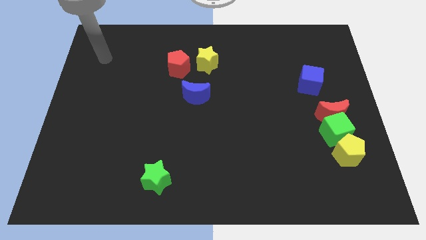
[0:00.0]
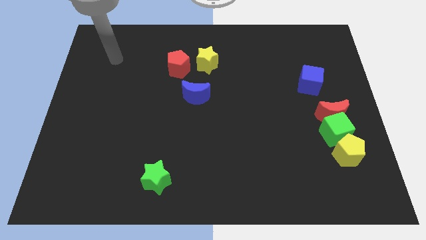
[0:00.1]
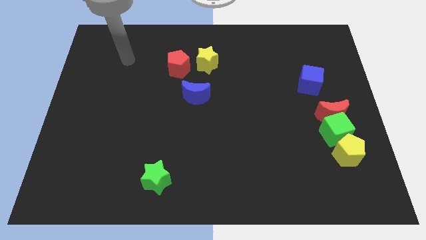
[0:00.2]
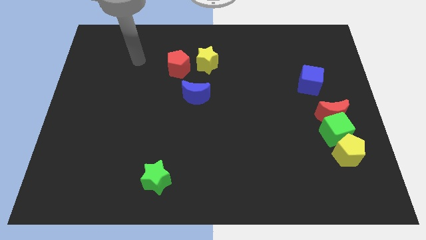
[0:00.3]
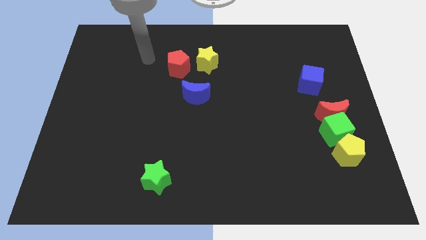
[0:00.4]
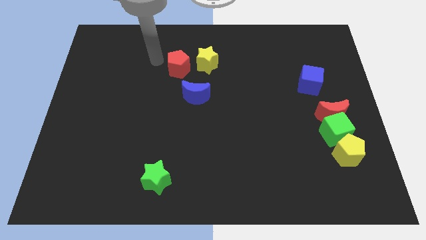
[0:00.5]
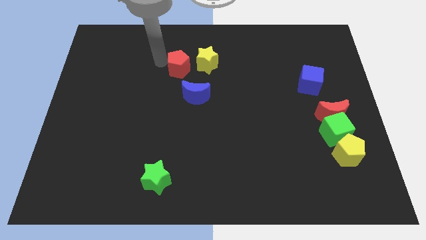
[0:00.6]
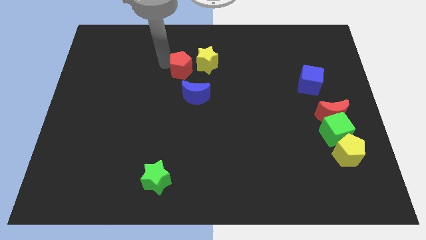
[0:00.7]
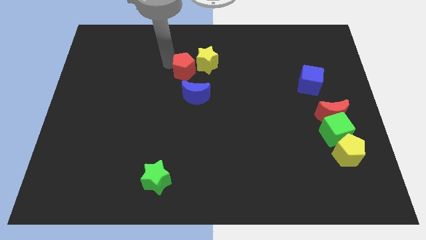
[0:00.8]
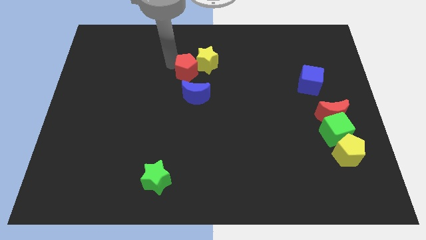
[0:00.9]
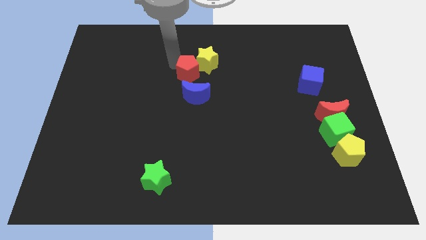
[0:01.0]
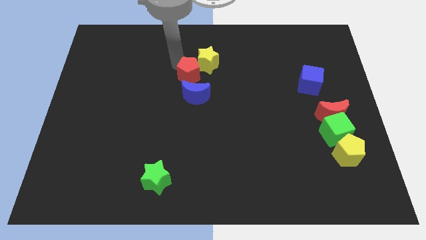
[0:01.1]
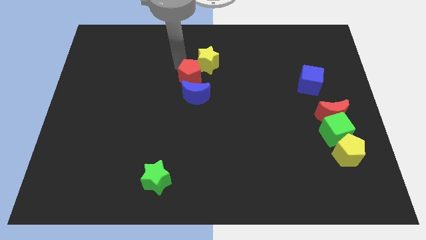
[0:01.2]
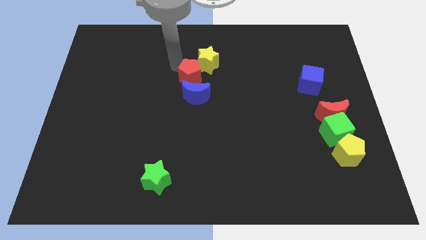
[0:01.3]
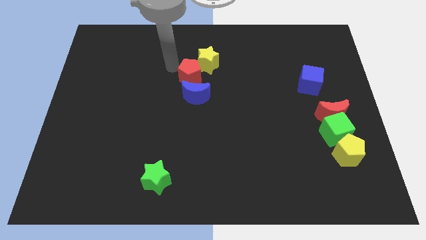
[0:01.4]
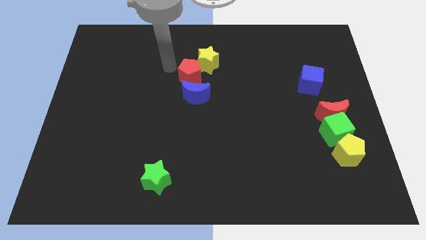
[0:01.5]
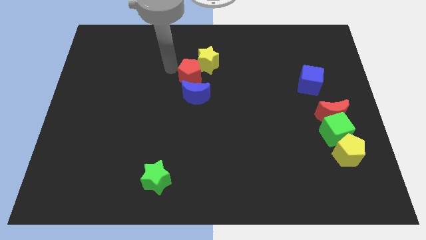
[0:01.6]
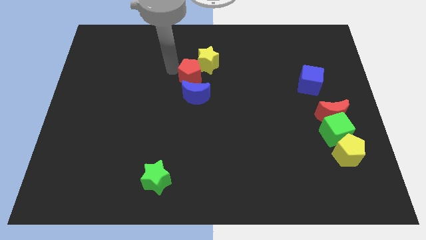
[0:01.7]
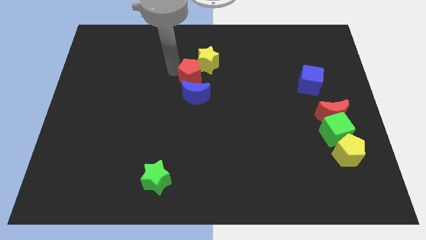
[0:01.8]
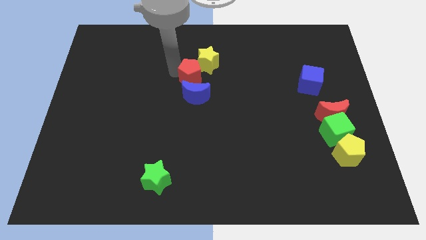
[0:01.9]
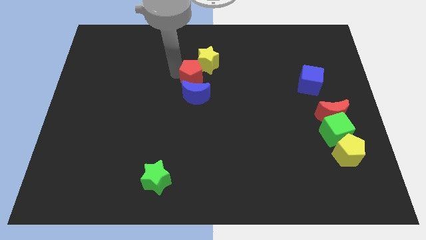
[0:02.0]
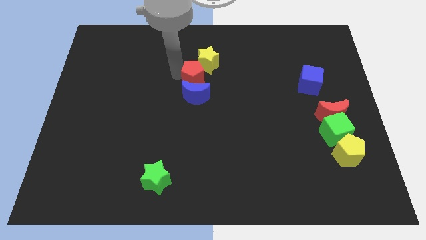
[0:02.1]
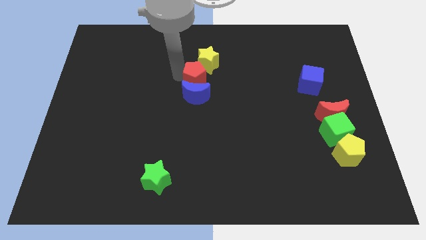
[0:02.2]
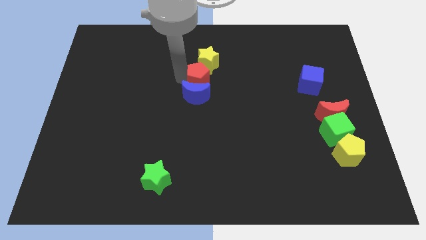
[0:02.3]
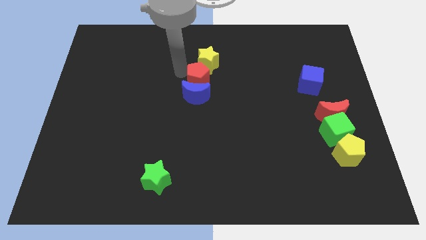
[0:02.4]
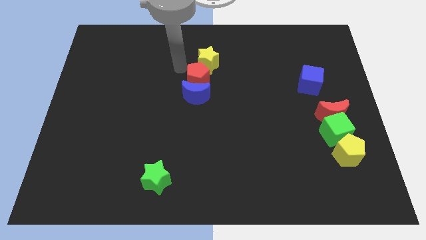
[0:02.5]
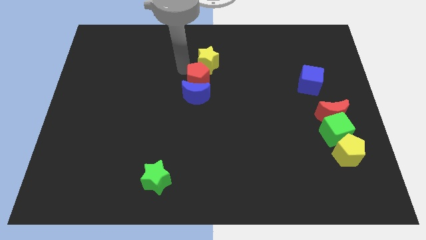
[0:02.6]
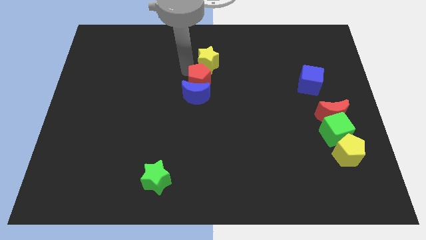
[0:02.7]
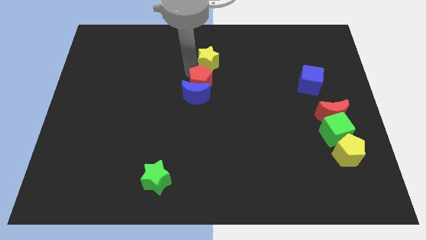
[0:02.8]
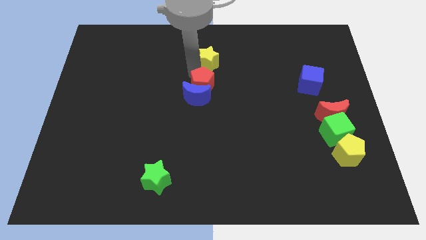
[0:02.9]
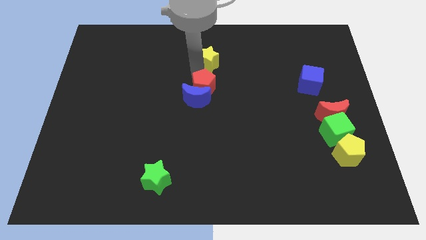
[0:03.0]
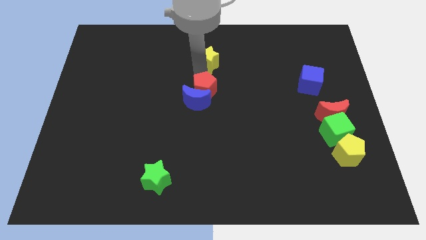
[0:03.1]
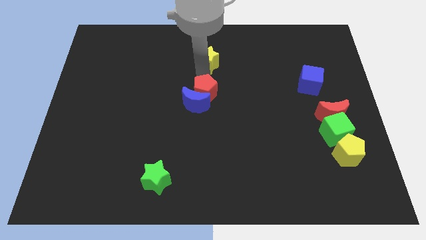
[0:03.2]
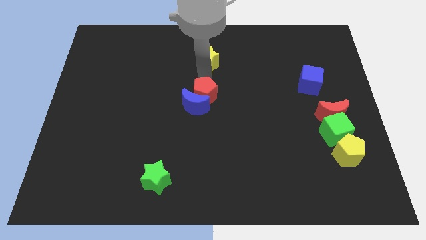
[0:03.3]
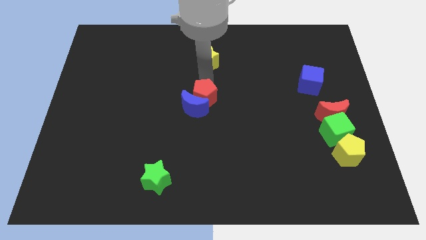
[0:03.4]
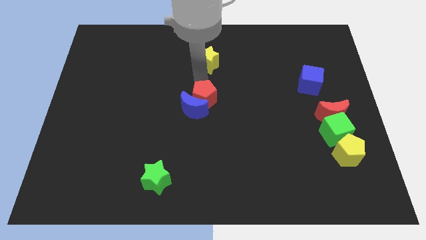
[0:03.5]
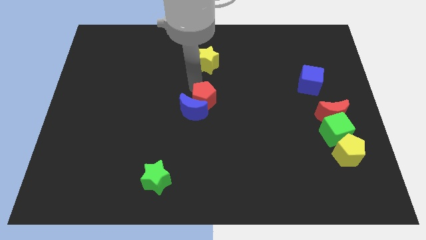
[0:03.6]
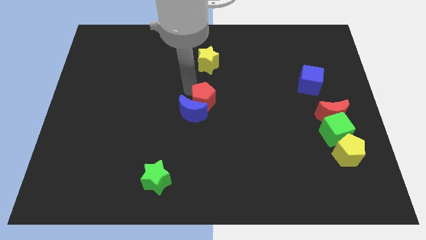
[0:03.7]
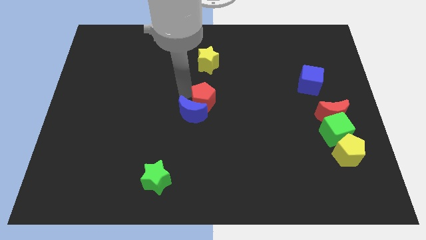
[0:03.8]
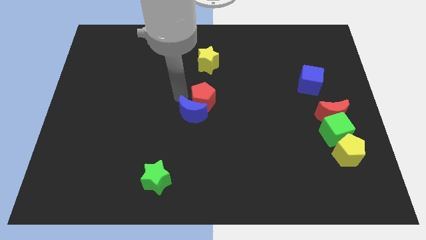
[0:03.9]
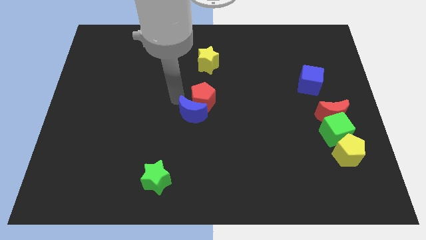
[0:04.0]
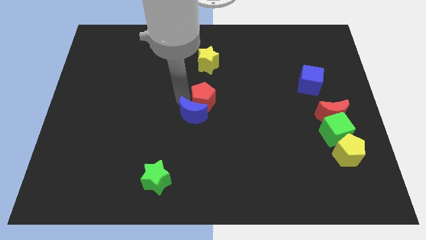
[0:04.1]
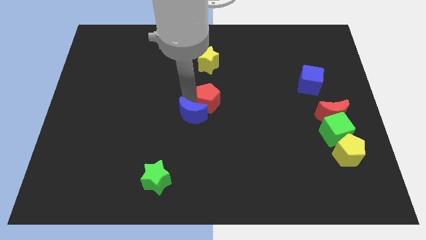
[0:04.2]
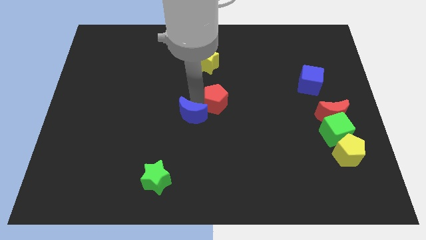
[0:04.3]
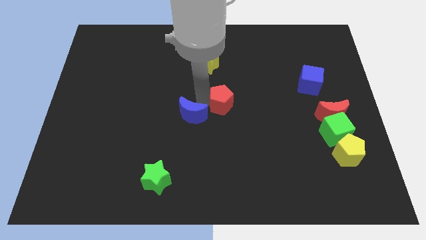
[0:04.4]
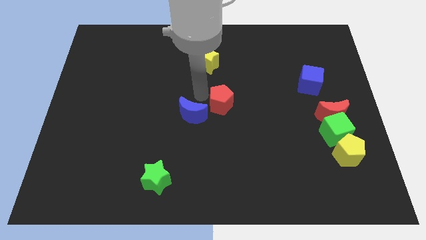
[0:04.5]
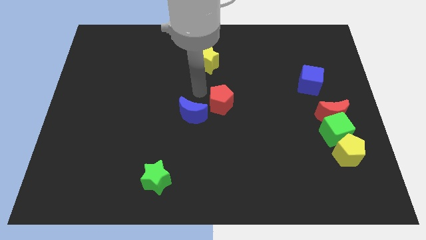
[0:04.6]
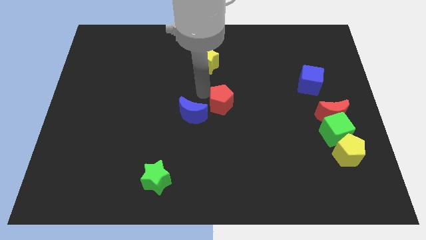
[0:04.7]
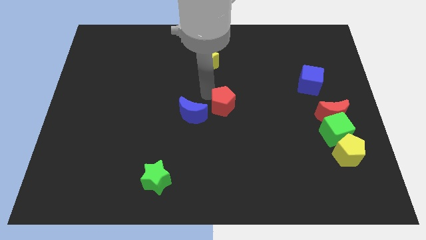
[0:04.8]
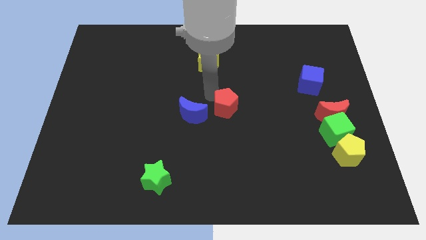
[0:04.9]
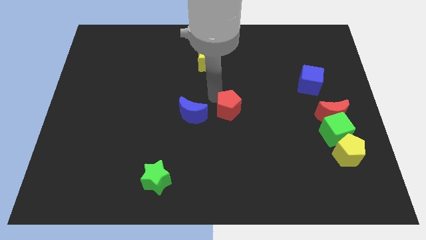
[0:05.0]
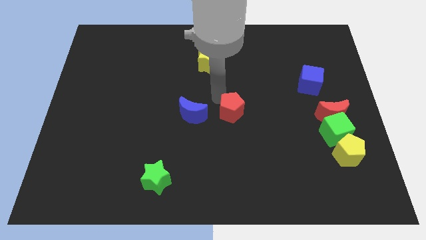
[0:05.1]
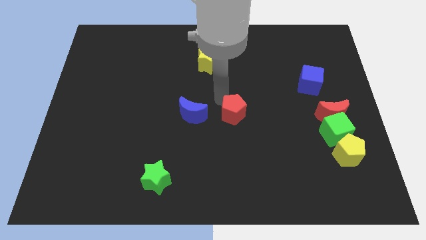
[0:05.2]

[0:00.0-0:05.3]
push the red pentagon downwards and right

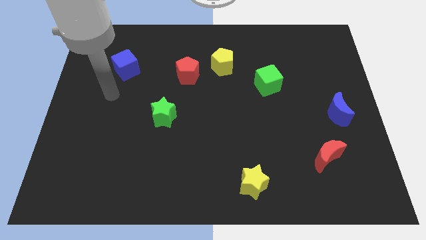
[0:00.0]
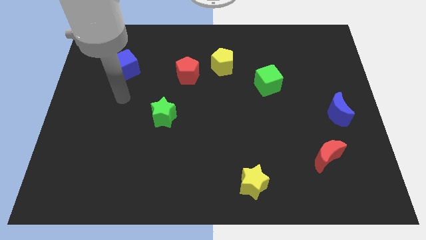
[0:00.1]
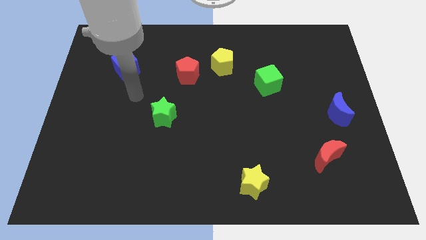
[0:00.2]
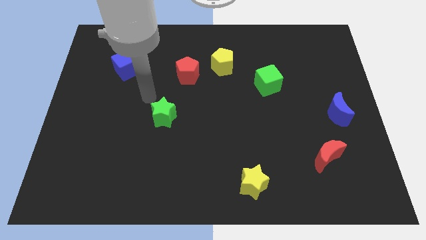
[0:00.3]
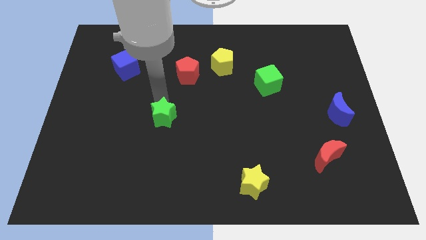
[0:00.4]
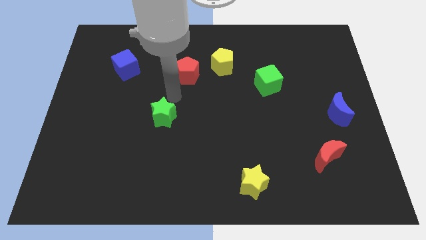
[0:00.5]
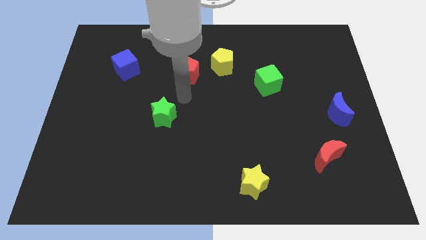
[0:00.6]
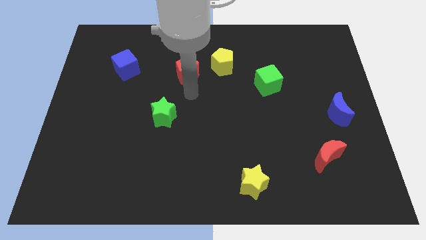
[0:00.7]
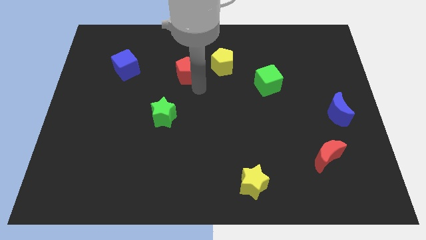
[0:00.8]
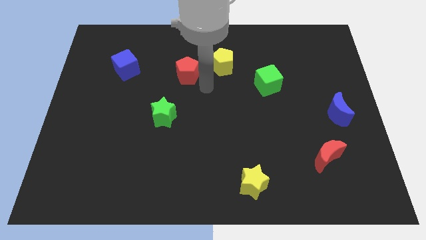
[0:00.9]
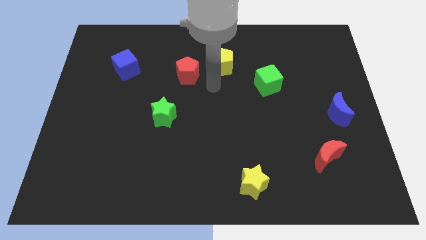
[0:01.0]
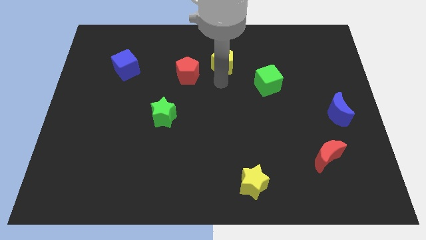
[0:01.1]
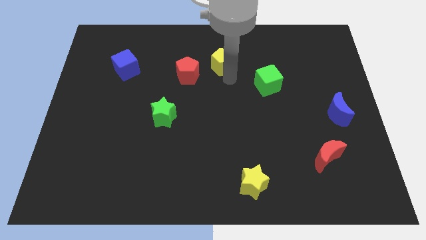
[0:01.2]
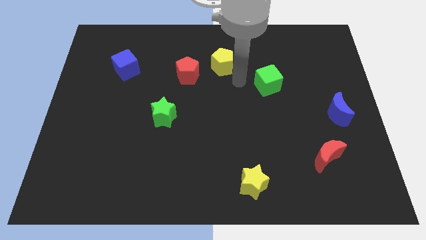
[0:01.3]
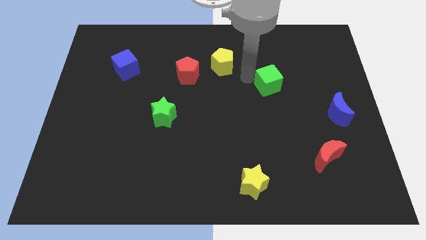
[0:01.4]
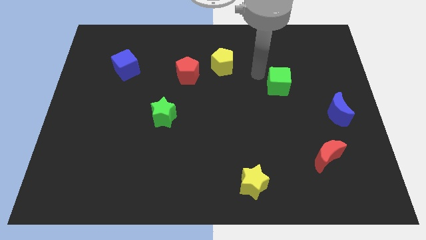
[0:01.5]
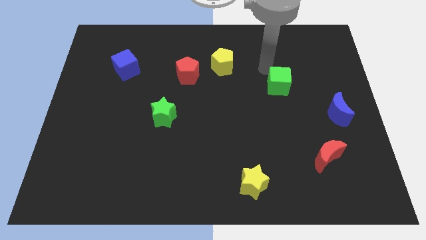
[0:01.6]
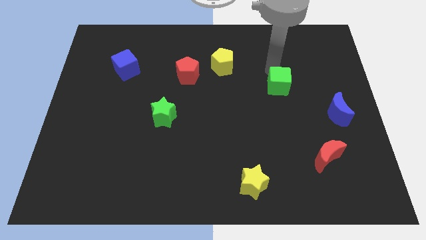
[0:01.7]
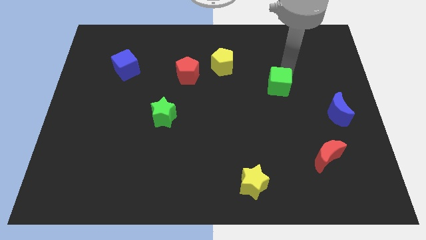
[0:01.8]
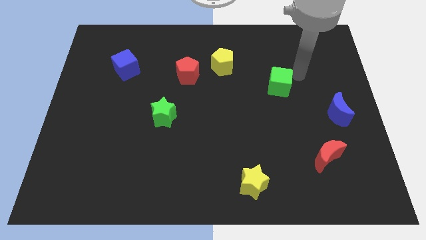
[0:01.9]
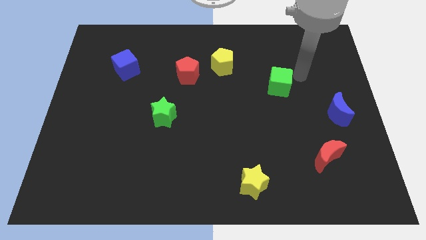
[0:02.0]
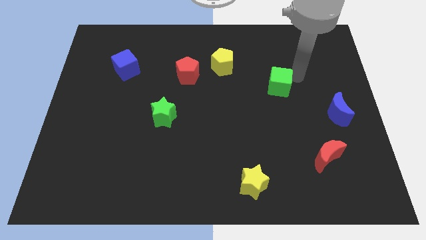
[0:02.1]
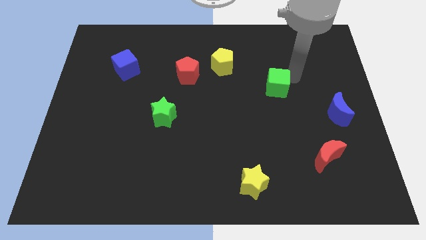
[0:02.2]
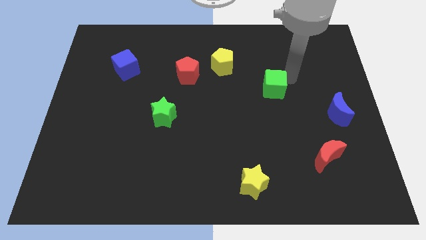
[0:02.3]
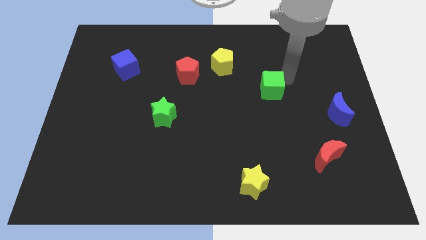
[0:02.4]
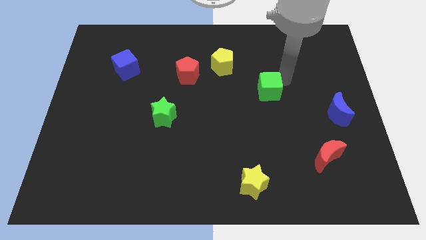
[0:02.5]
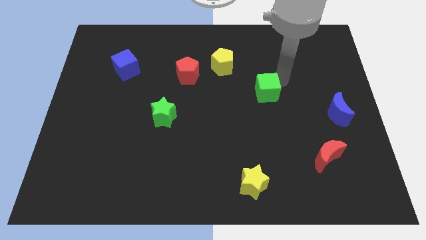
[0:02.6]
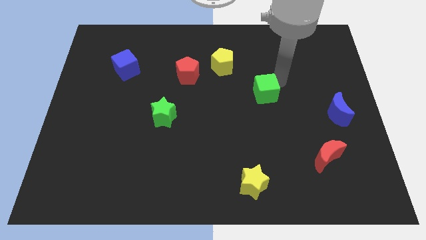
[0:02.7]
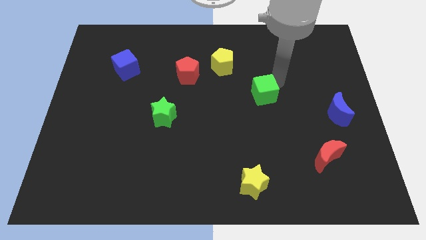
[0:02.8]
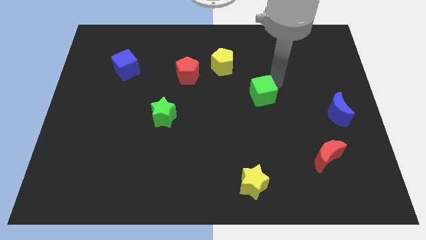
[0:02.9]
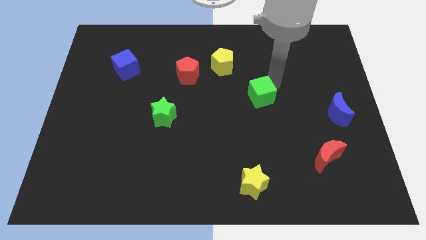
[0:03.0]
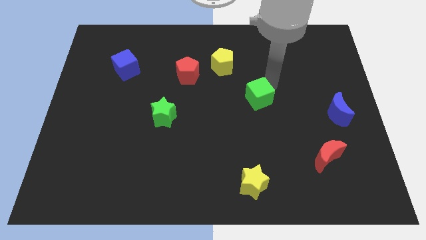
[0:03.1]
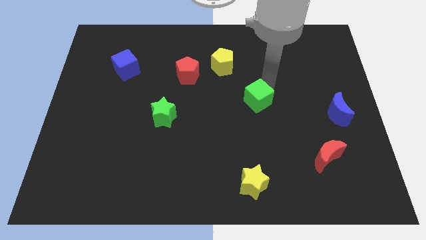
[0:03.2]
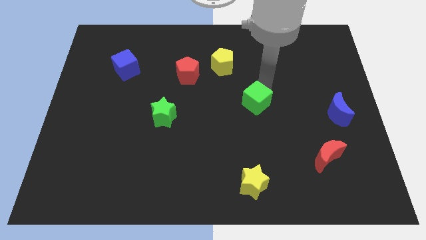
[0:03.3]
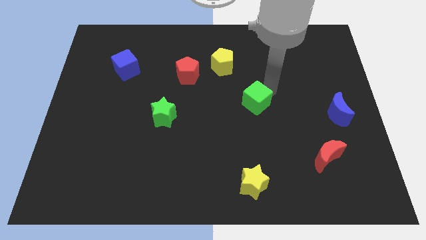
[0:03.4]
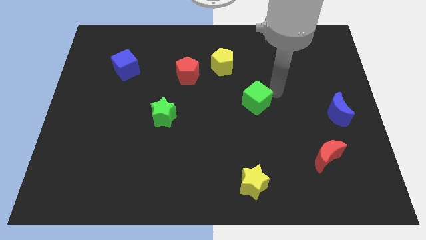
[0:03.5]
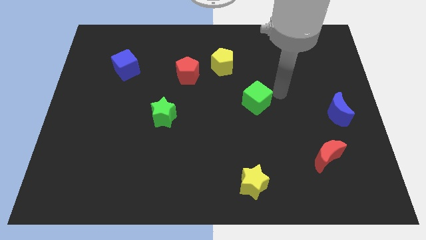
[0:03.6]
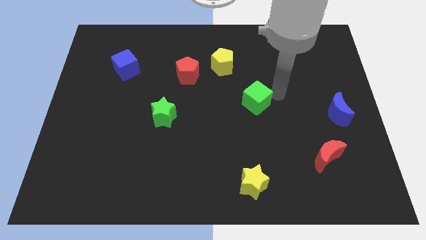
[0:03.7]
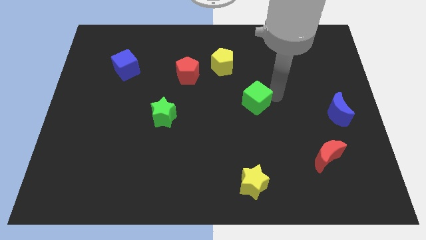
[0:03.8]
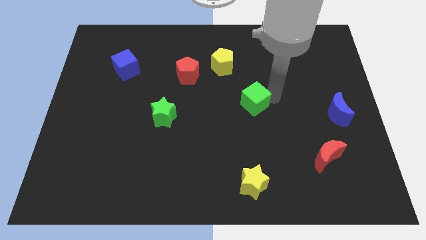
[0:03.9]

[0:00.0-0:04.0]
push the green cube diagonally downwards and left somewhat
